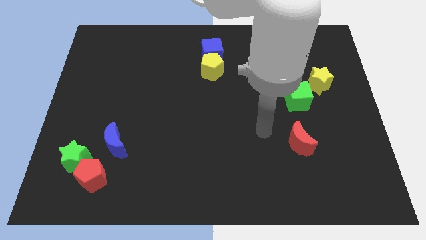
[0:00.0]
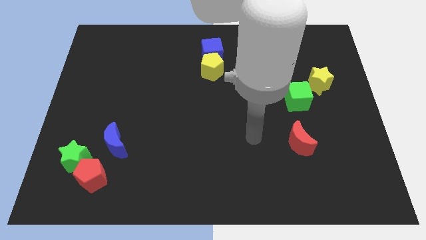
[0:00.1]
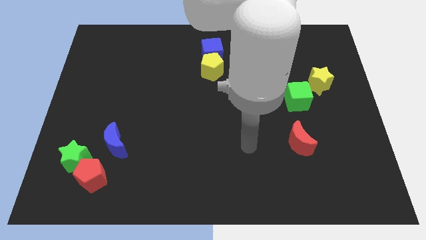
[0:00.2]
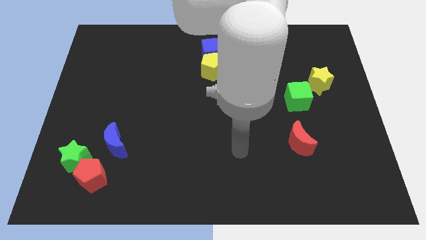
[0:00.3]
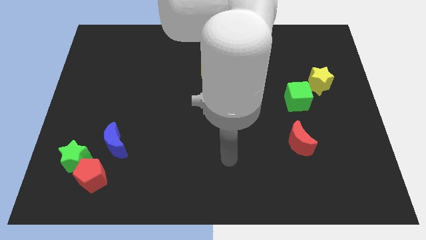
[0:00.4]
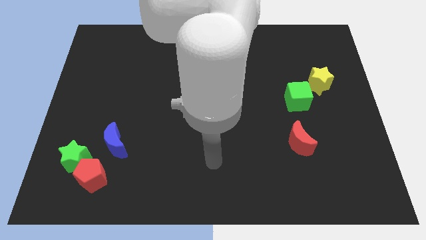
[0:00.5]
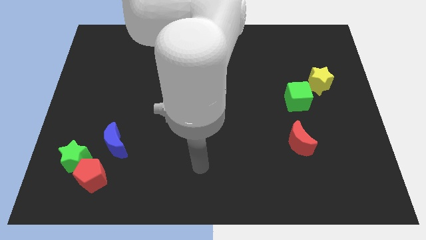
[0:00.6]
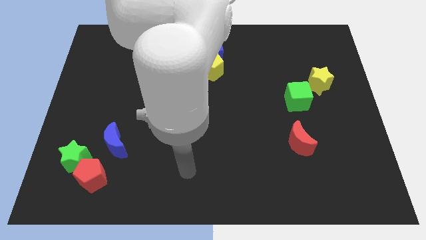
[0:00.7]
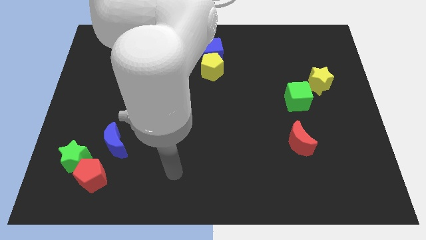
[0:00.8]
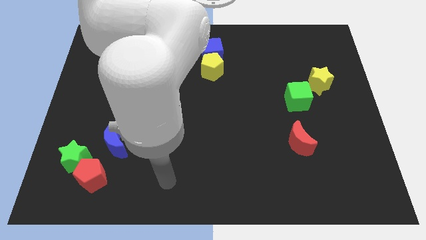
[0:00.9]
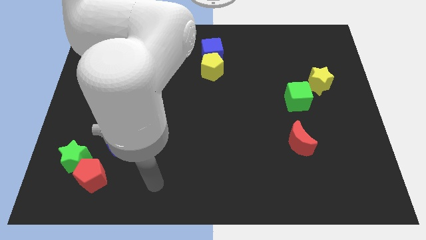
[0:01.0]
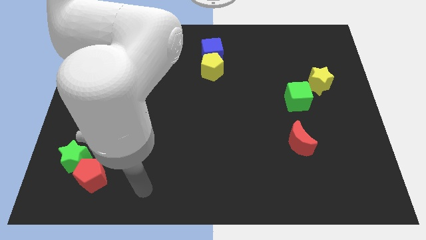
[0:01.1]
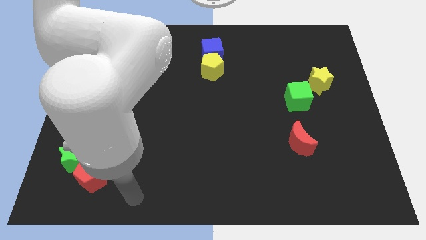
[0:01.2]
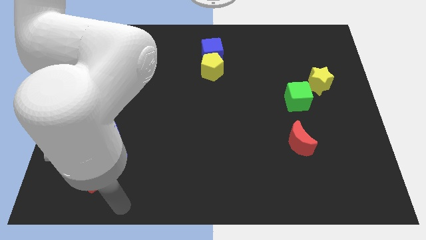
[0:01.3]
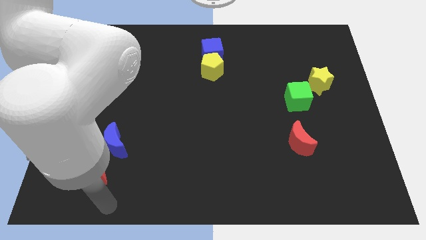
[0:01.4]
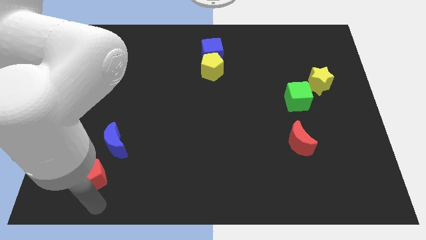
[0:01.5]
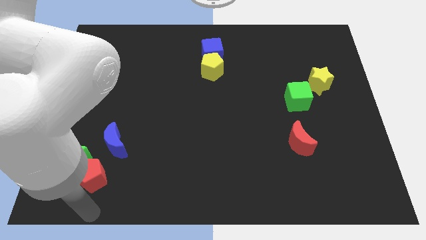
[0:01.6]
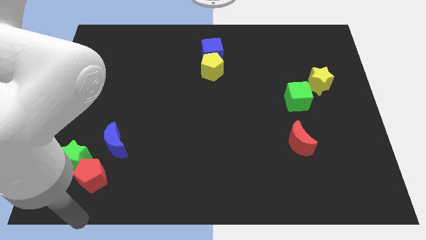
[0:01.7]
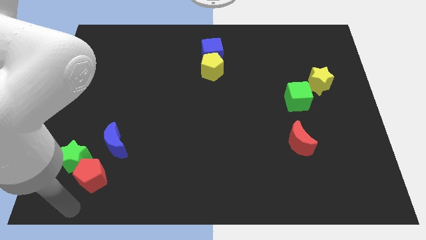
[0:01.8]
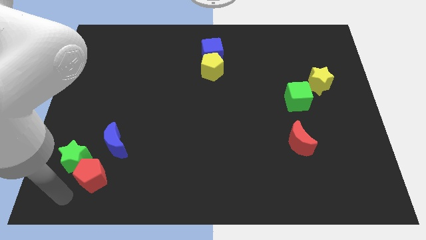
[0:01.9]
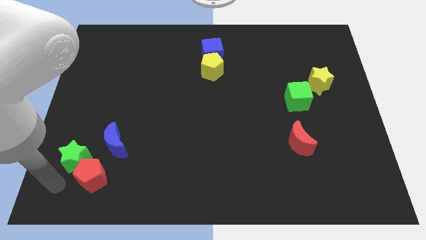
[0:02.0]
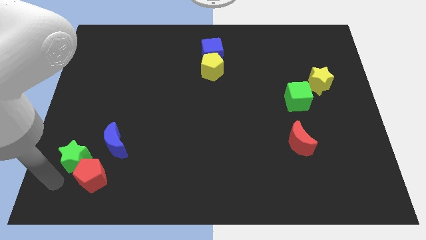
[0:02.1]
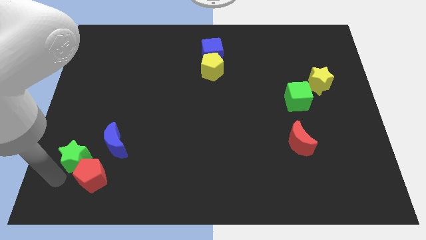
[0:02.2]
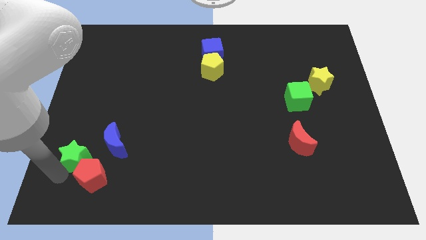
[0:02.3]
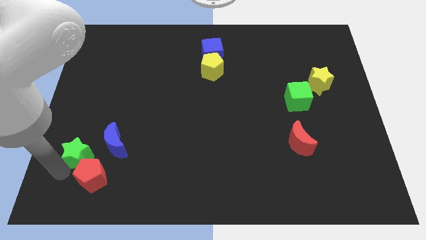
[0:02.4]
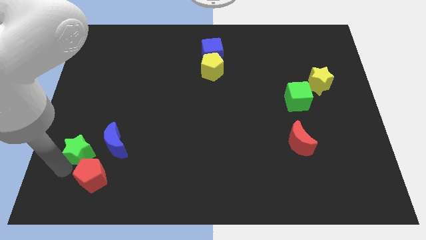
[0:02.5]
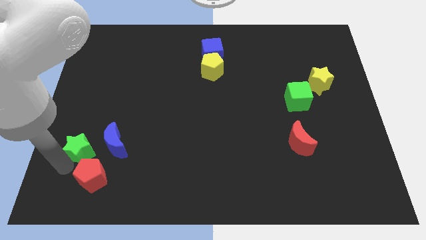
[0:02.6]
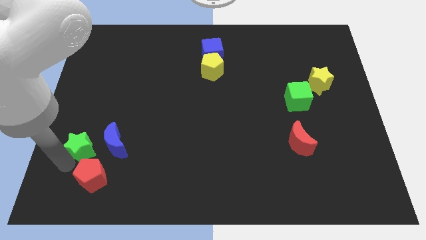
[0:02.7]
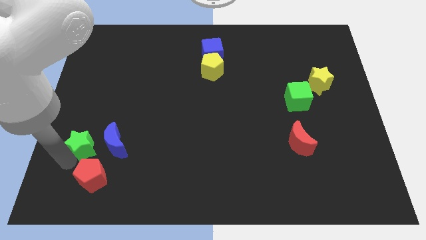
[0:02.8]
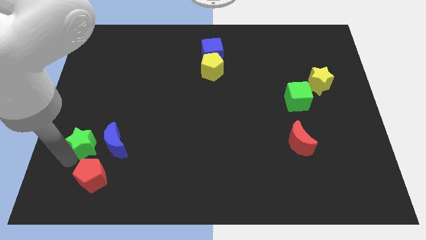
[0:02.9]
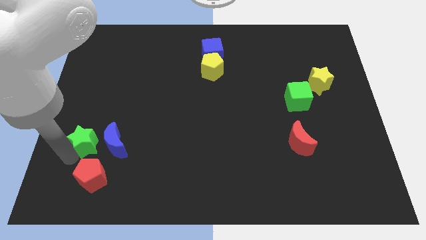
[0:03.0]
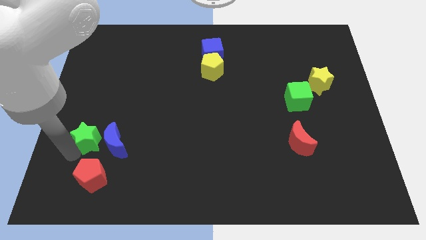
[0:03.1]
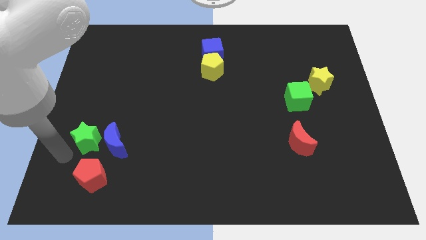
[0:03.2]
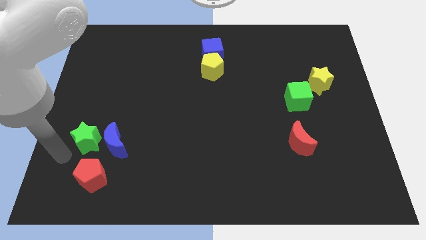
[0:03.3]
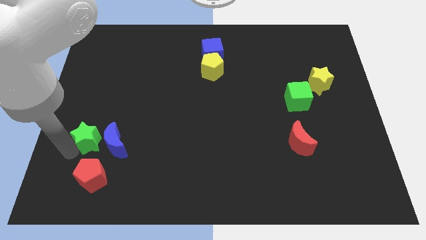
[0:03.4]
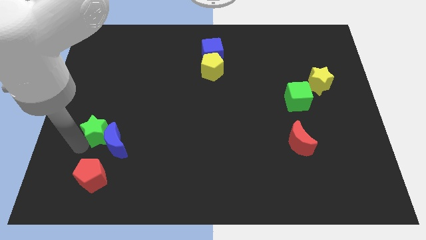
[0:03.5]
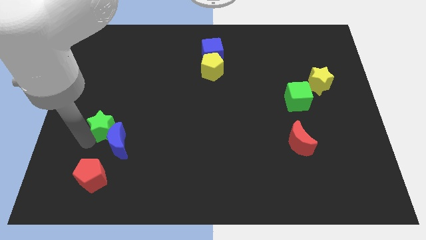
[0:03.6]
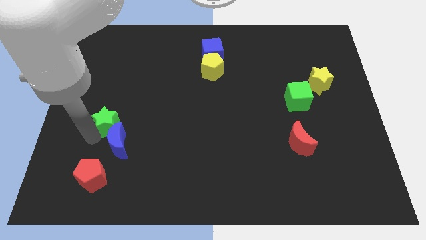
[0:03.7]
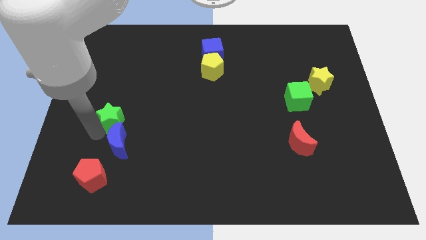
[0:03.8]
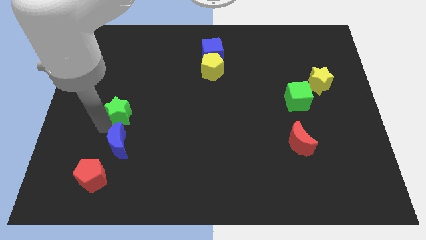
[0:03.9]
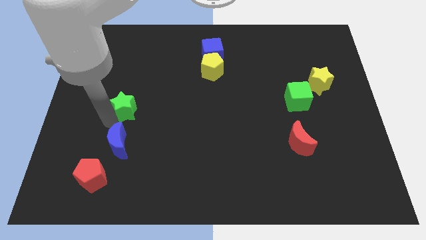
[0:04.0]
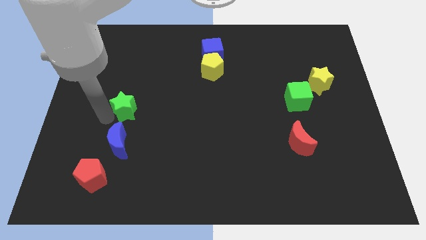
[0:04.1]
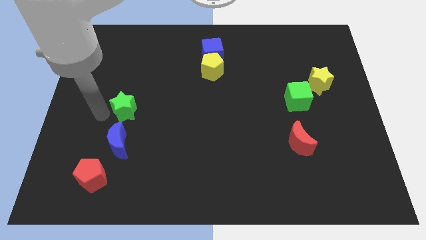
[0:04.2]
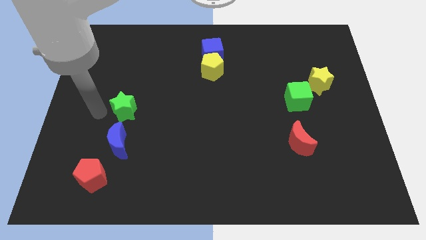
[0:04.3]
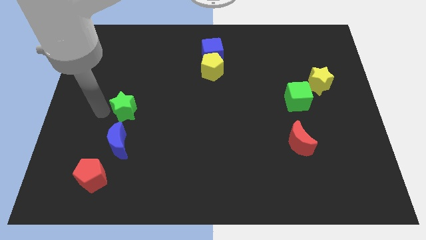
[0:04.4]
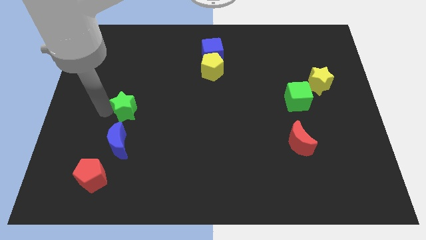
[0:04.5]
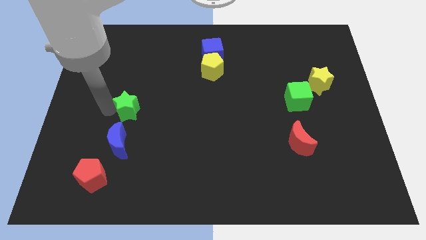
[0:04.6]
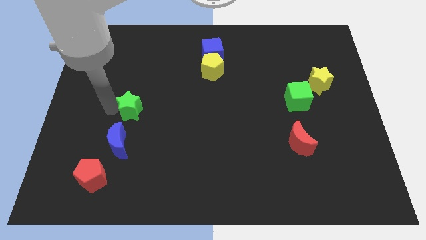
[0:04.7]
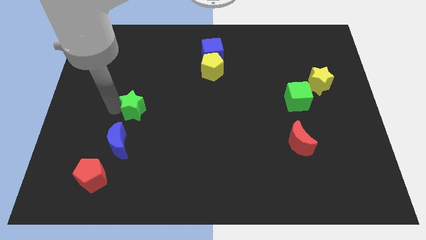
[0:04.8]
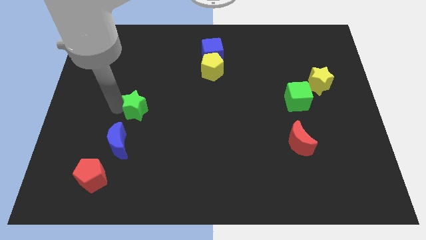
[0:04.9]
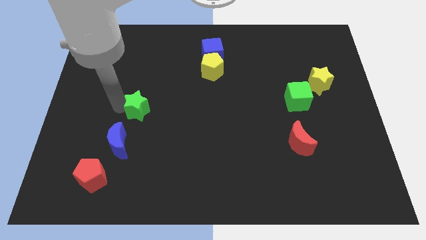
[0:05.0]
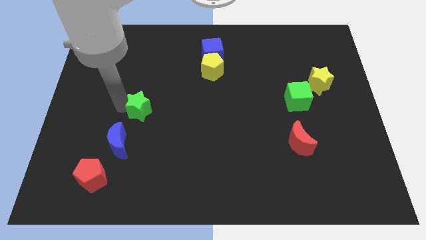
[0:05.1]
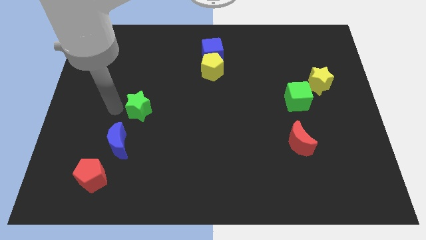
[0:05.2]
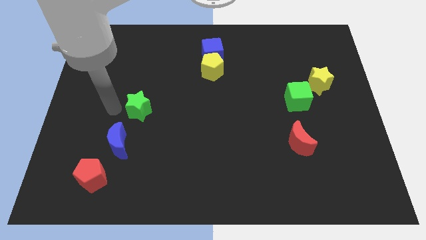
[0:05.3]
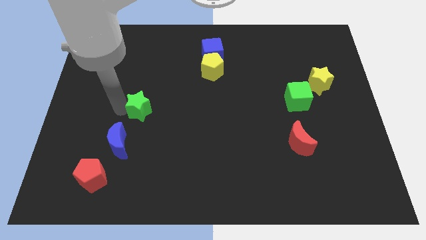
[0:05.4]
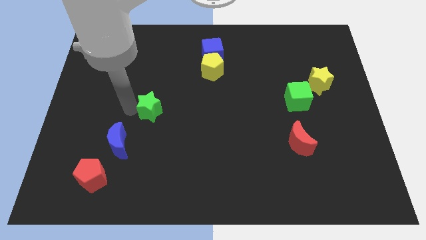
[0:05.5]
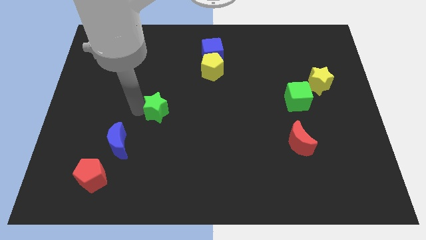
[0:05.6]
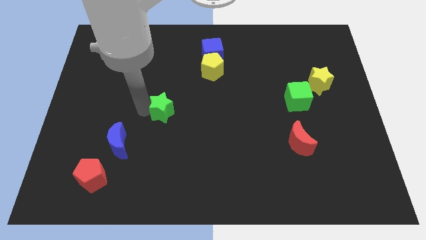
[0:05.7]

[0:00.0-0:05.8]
move the green star to the middle of the board
